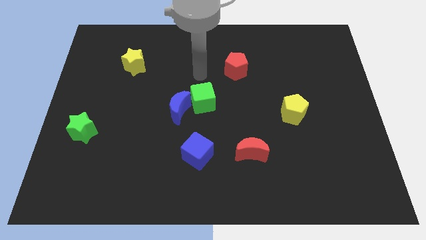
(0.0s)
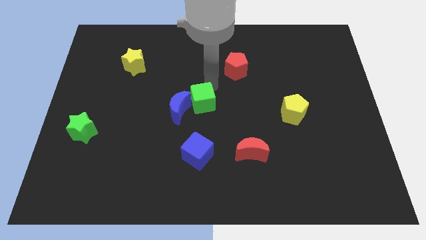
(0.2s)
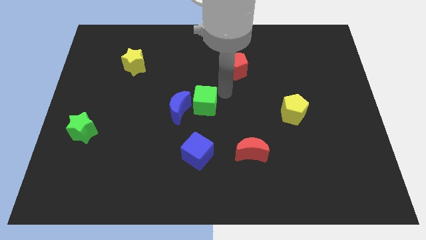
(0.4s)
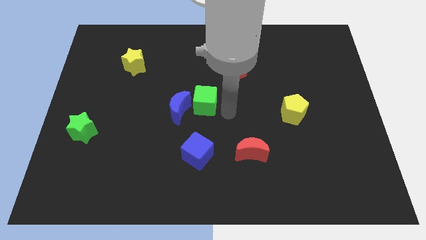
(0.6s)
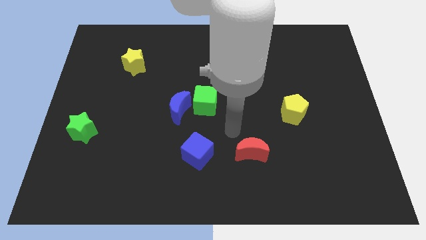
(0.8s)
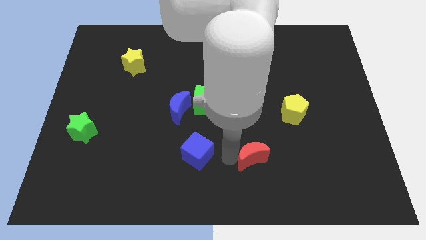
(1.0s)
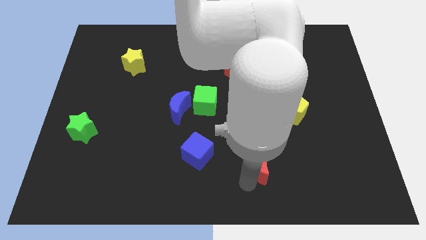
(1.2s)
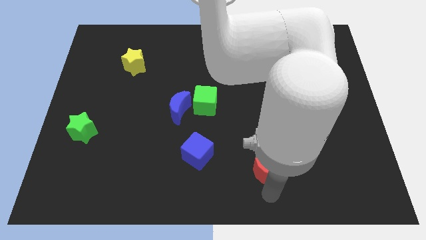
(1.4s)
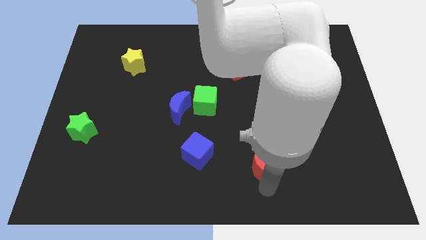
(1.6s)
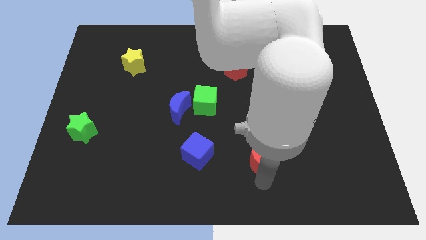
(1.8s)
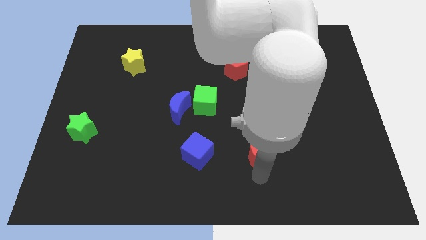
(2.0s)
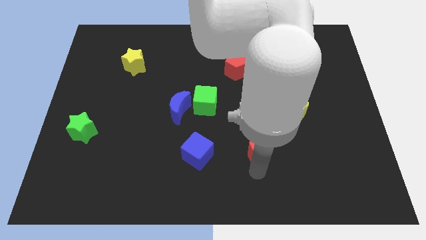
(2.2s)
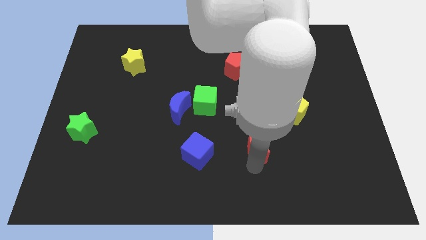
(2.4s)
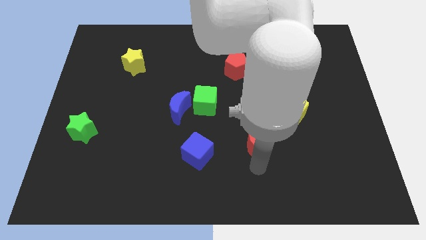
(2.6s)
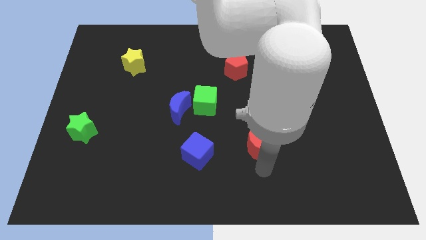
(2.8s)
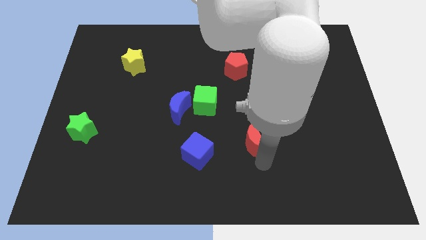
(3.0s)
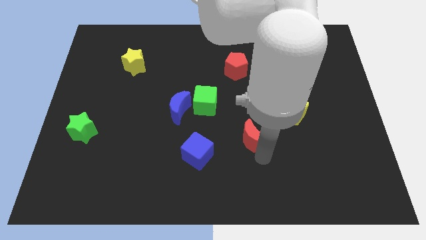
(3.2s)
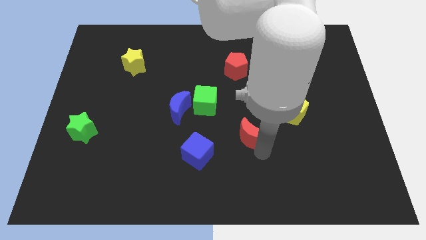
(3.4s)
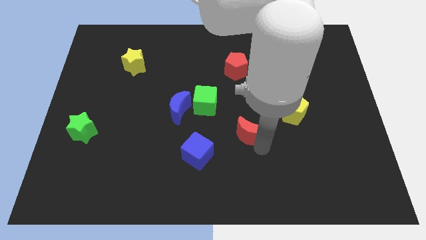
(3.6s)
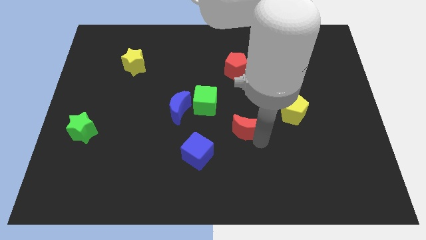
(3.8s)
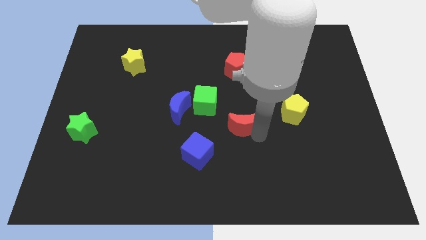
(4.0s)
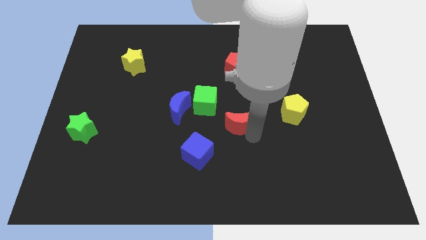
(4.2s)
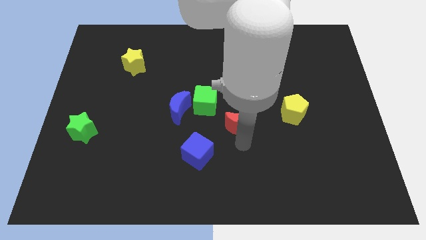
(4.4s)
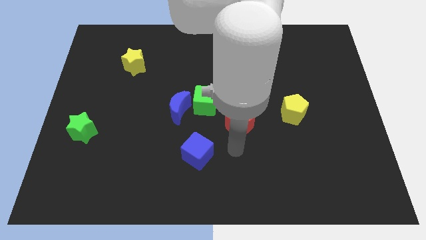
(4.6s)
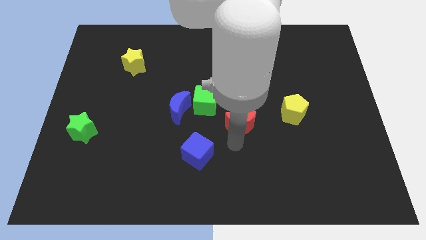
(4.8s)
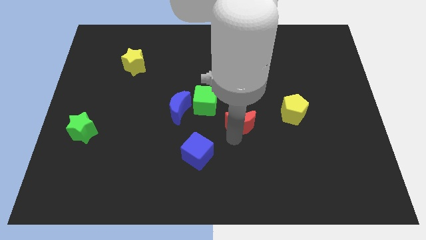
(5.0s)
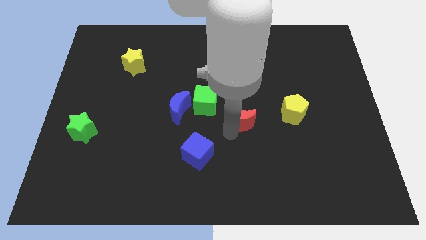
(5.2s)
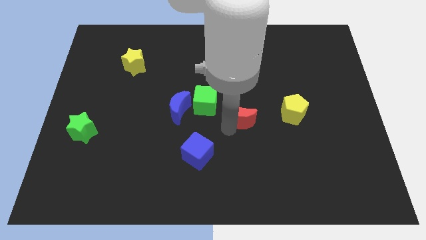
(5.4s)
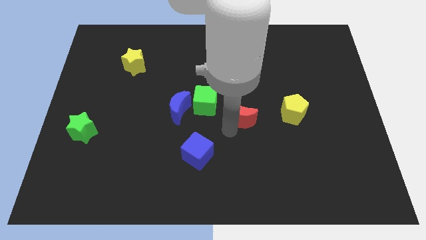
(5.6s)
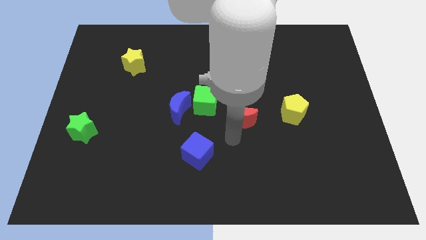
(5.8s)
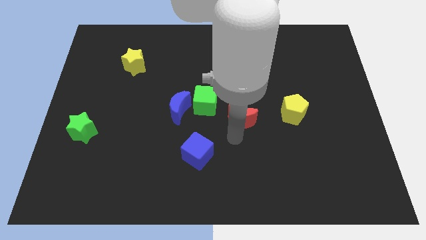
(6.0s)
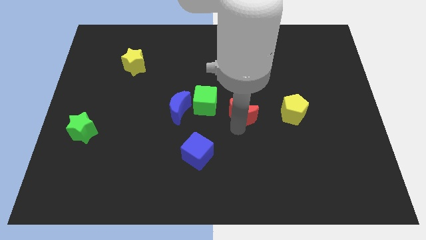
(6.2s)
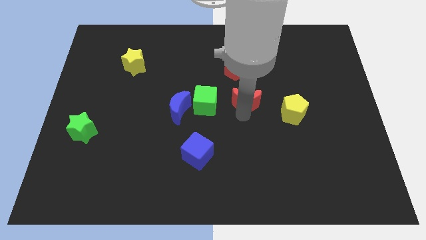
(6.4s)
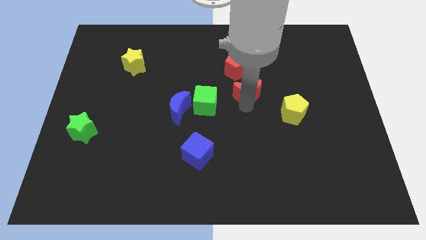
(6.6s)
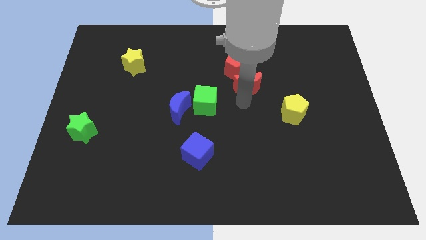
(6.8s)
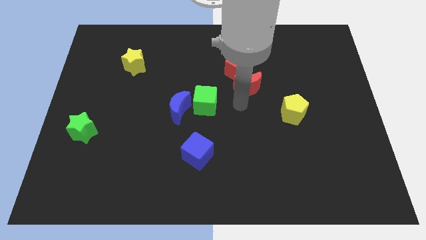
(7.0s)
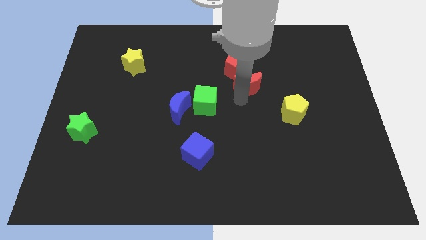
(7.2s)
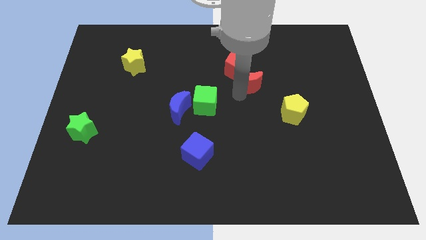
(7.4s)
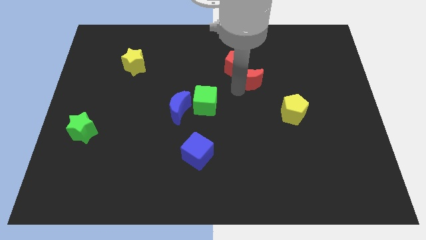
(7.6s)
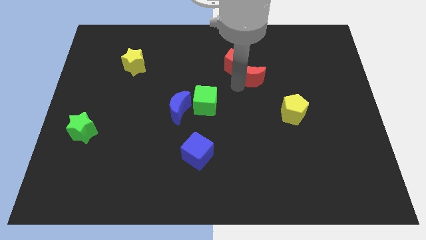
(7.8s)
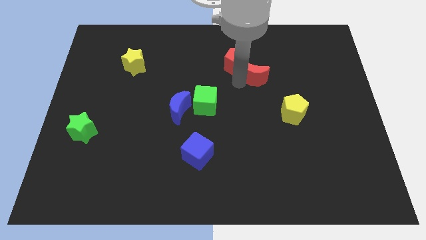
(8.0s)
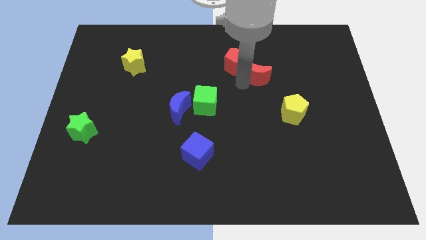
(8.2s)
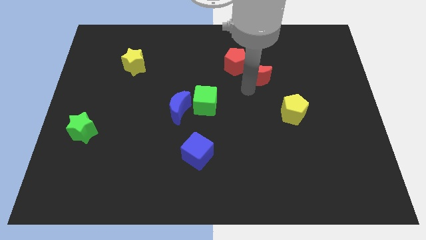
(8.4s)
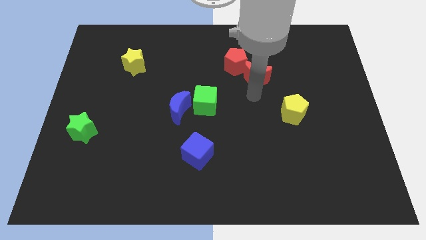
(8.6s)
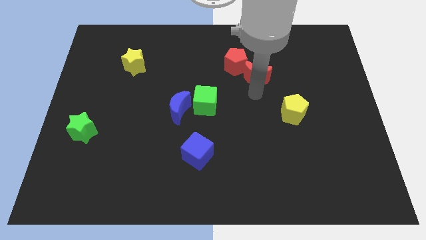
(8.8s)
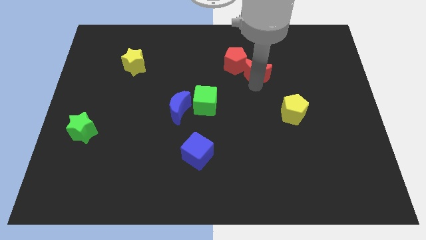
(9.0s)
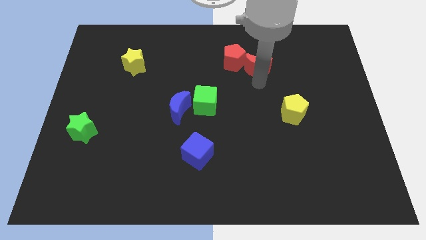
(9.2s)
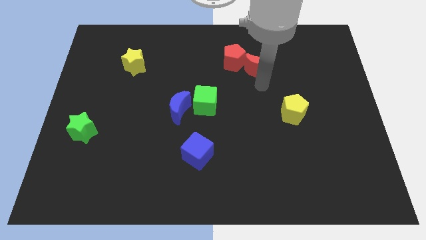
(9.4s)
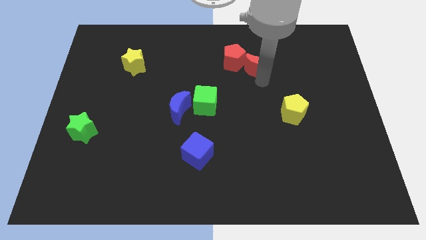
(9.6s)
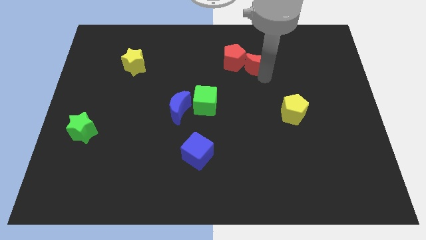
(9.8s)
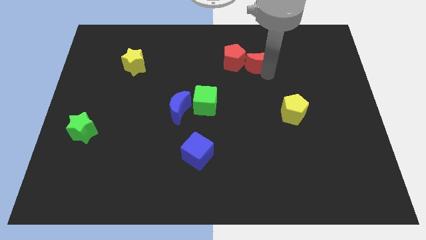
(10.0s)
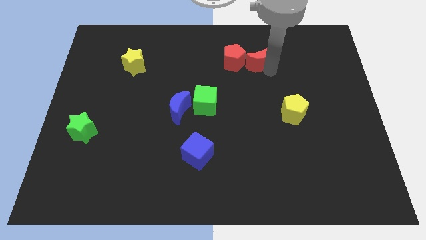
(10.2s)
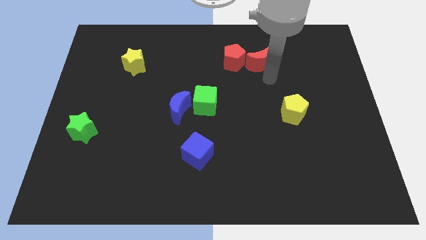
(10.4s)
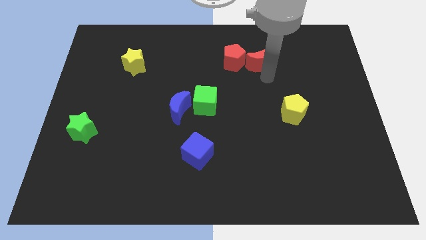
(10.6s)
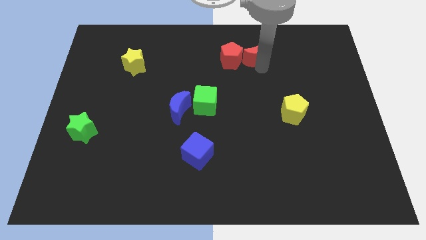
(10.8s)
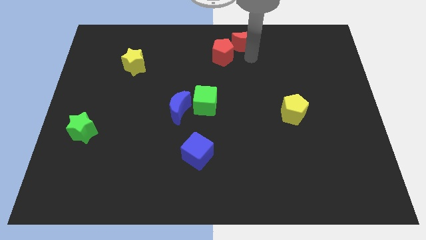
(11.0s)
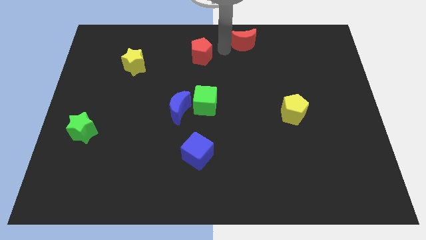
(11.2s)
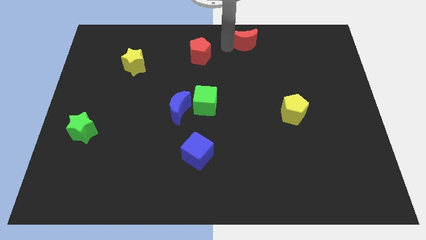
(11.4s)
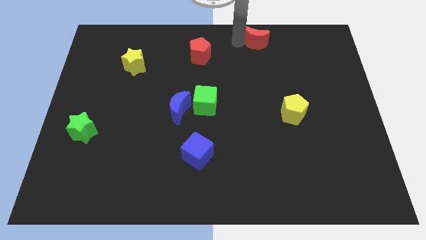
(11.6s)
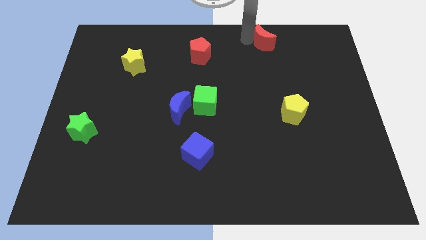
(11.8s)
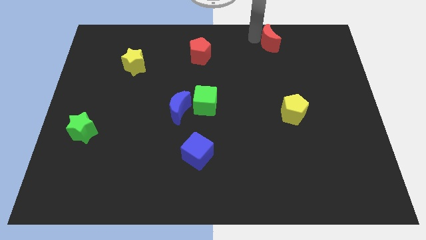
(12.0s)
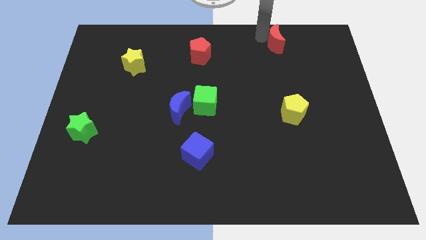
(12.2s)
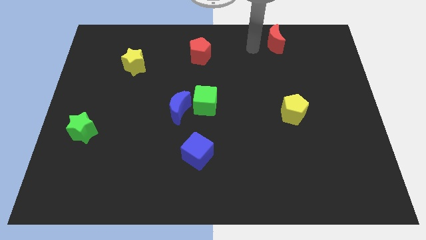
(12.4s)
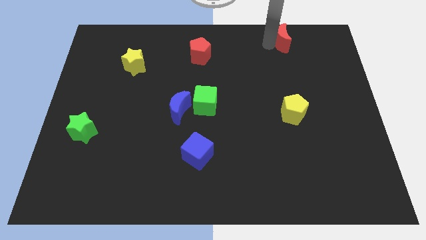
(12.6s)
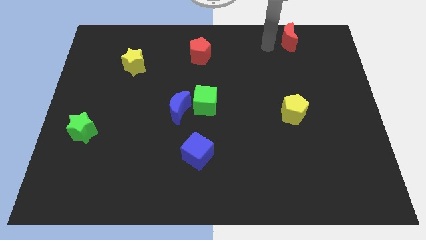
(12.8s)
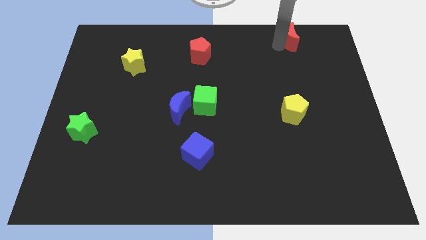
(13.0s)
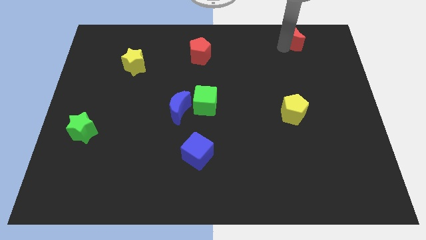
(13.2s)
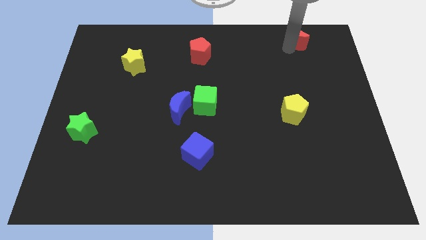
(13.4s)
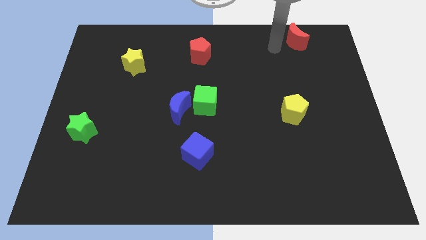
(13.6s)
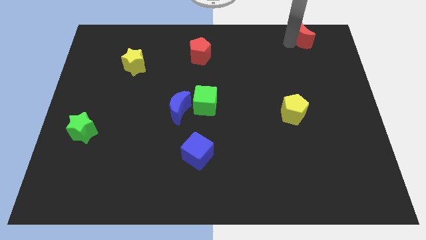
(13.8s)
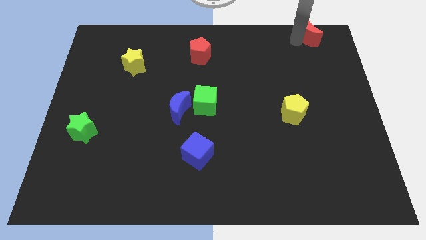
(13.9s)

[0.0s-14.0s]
put the red moon to the top right of the board
